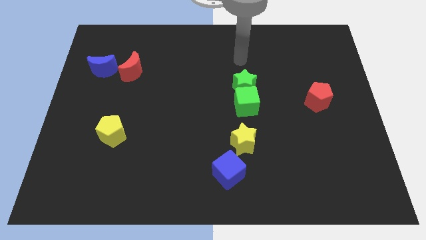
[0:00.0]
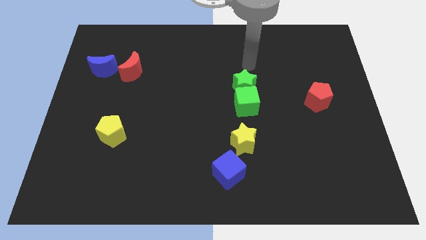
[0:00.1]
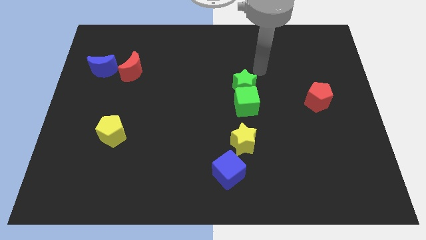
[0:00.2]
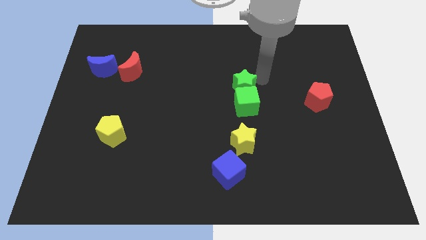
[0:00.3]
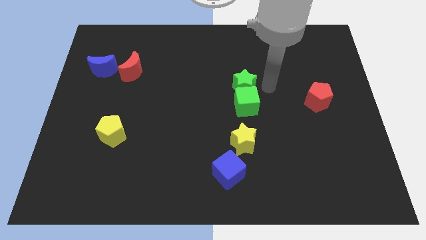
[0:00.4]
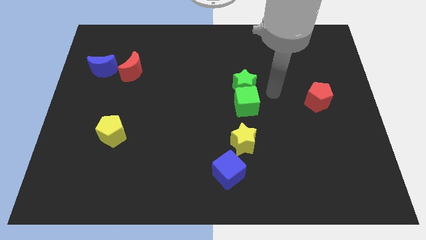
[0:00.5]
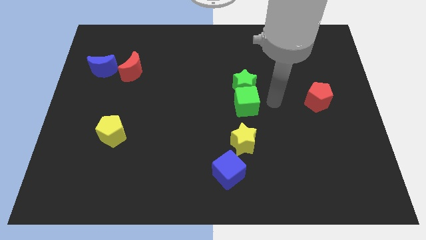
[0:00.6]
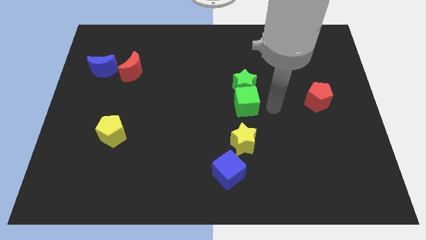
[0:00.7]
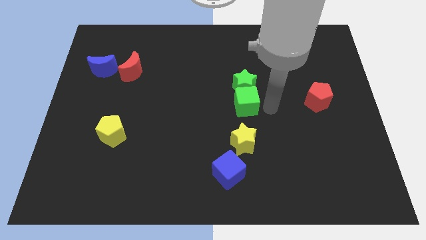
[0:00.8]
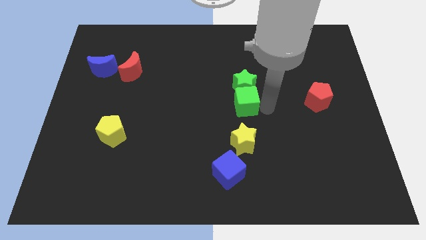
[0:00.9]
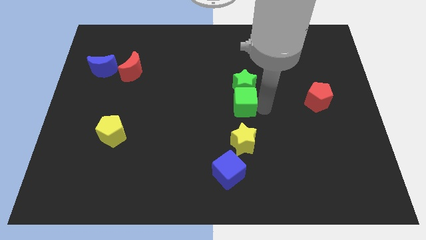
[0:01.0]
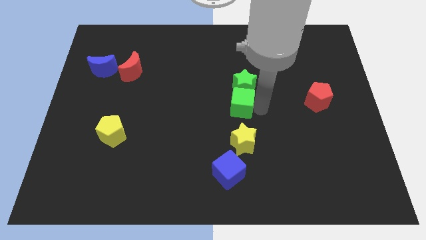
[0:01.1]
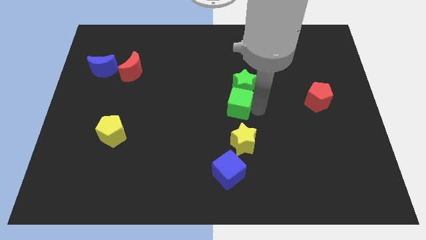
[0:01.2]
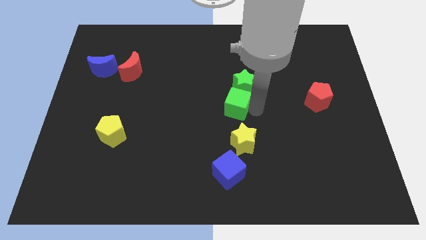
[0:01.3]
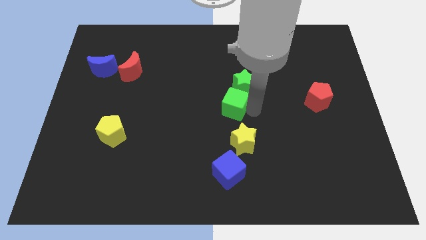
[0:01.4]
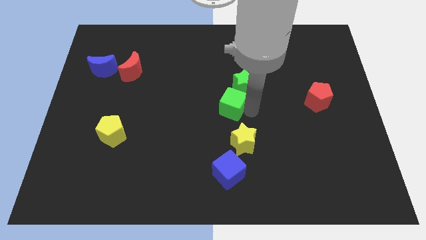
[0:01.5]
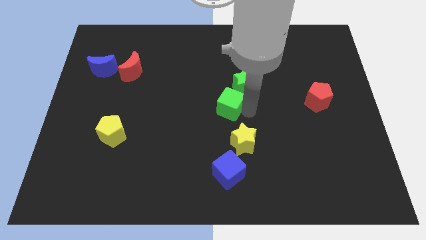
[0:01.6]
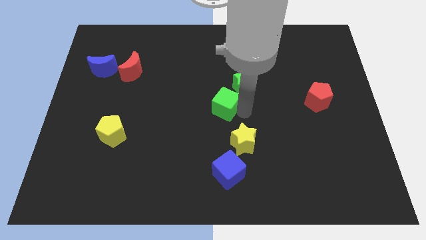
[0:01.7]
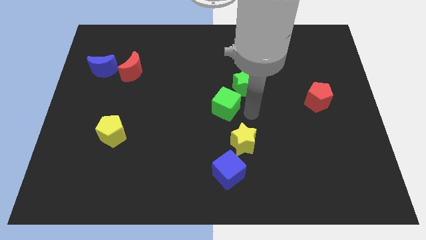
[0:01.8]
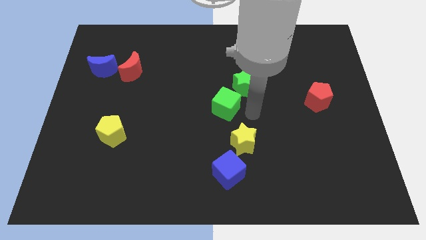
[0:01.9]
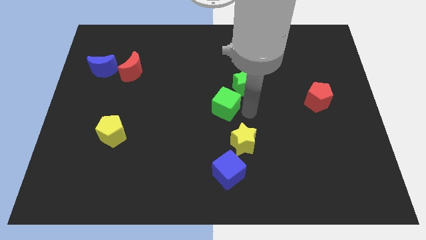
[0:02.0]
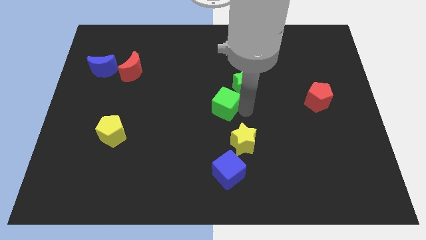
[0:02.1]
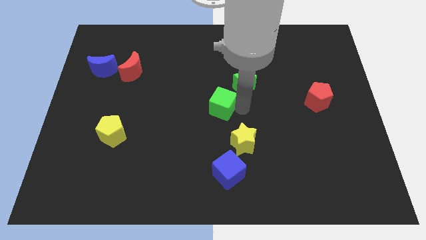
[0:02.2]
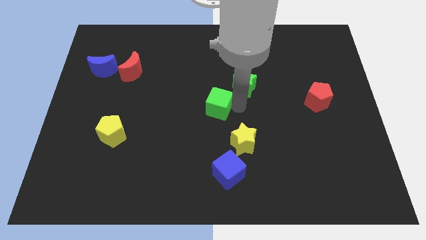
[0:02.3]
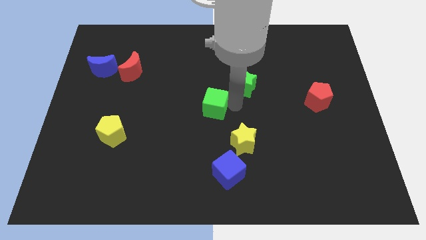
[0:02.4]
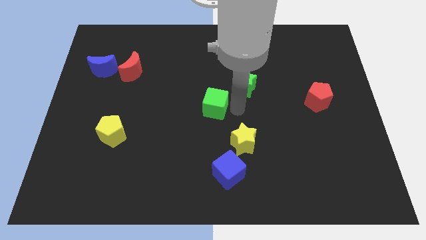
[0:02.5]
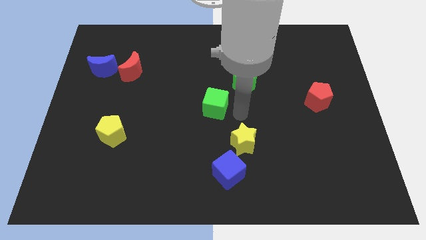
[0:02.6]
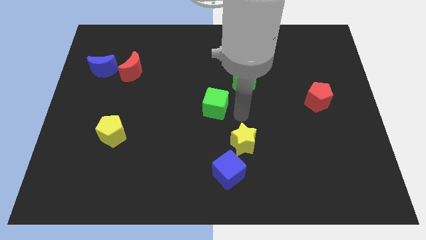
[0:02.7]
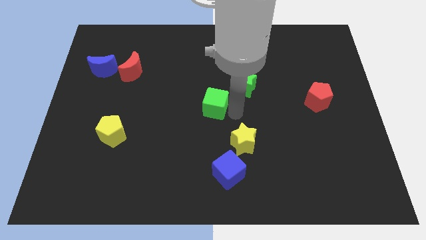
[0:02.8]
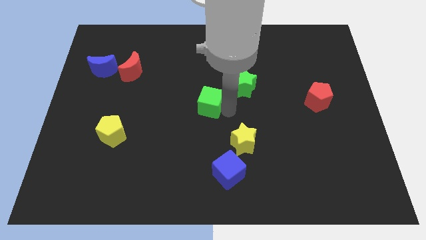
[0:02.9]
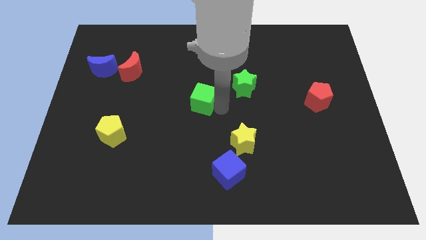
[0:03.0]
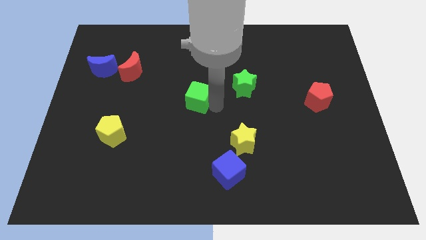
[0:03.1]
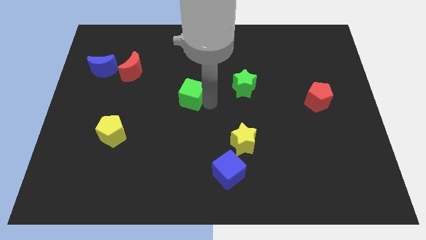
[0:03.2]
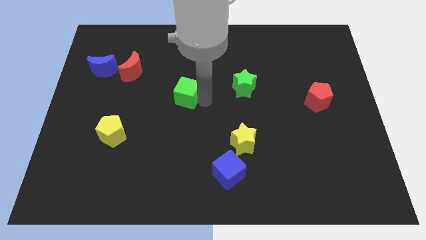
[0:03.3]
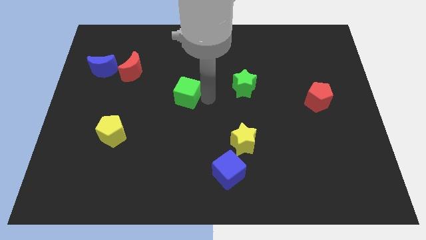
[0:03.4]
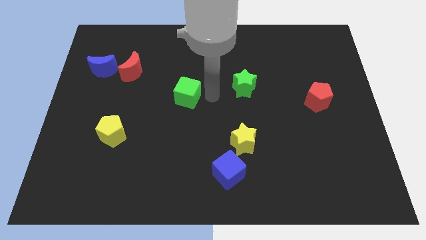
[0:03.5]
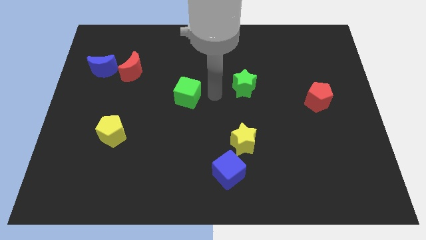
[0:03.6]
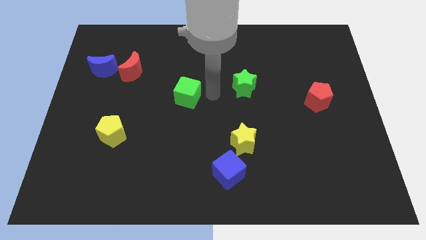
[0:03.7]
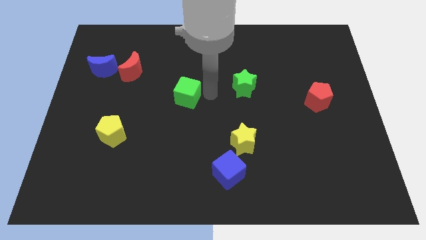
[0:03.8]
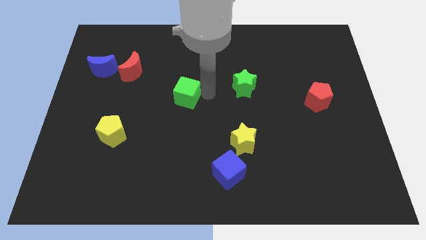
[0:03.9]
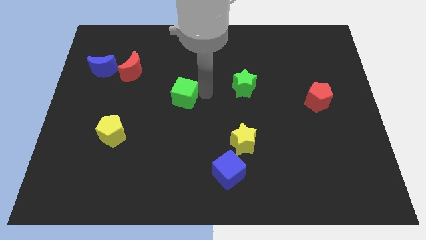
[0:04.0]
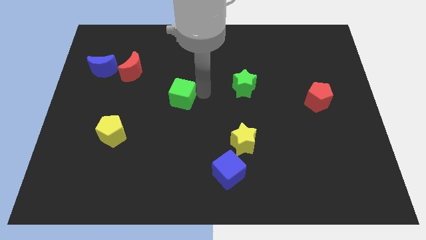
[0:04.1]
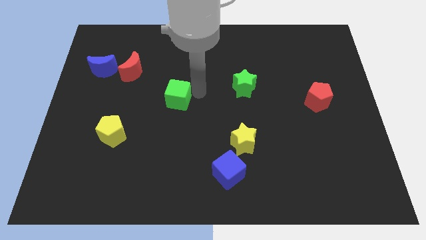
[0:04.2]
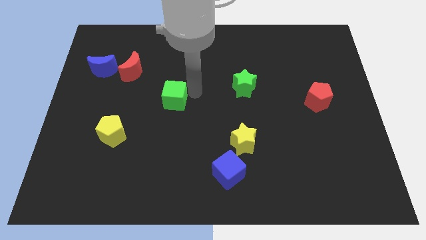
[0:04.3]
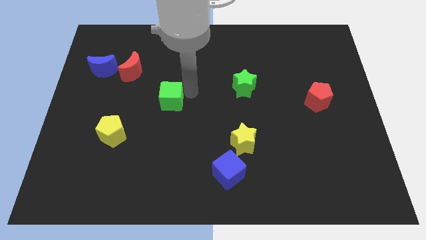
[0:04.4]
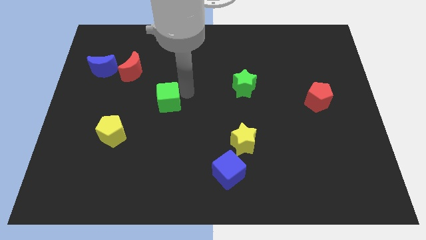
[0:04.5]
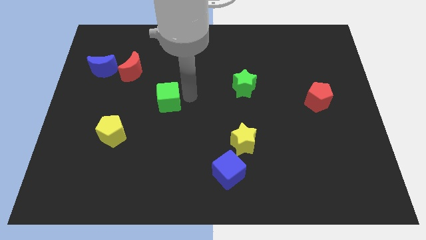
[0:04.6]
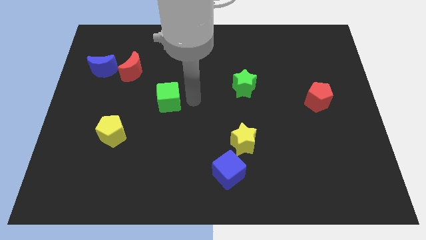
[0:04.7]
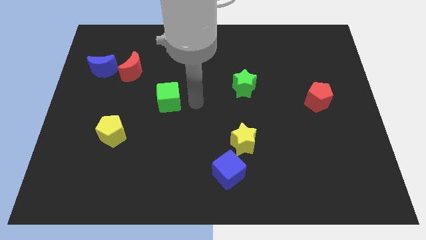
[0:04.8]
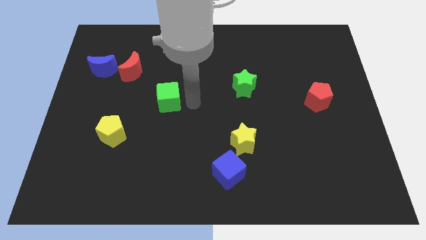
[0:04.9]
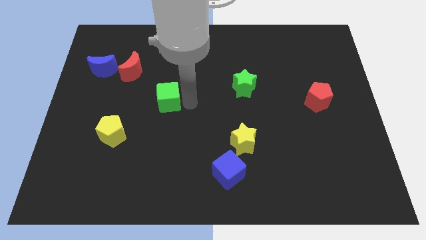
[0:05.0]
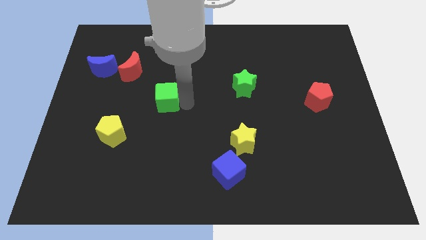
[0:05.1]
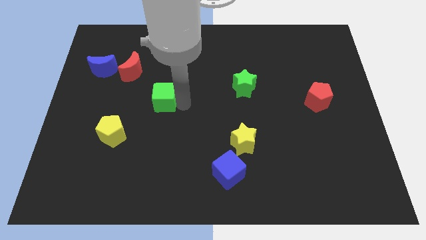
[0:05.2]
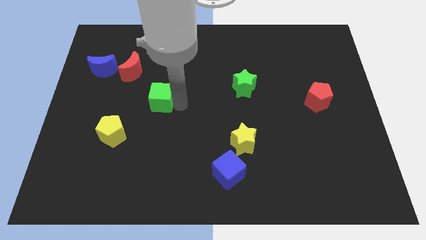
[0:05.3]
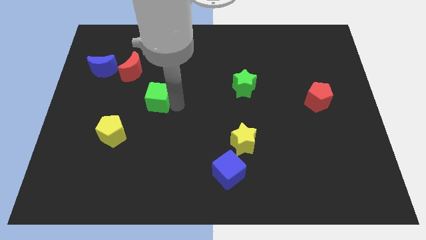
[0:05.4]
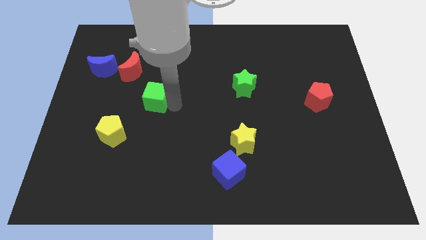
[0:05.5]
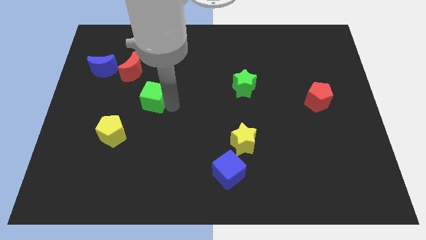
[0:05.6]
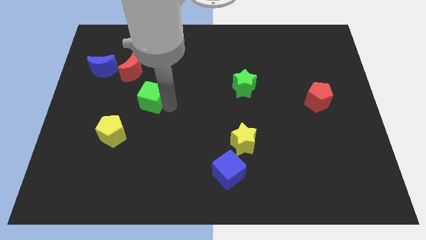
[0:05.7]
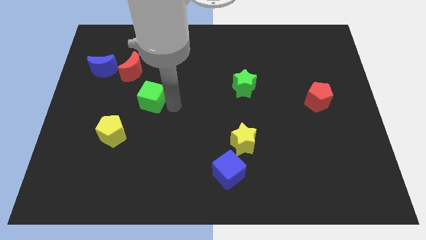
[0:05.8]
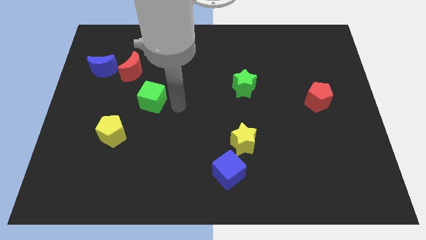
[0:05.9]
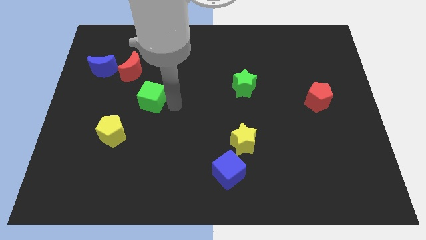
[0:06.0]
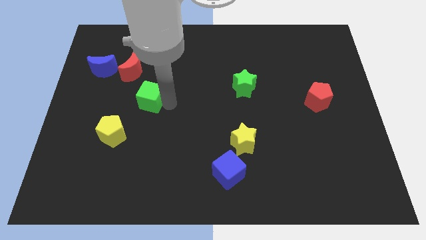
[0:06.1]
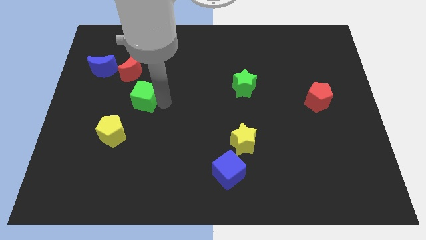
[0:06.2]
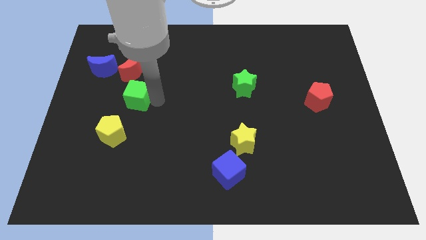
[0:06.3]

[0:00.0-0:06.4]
push the green cube to the top side of the yellow pentagon
